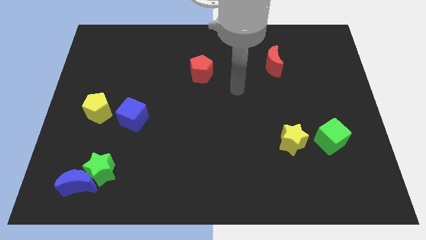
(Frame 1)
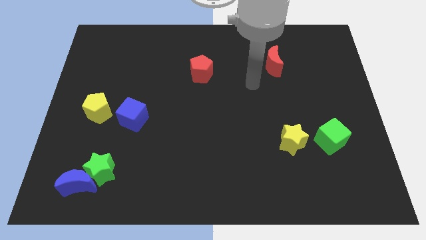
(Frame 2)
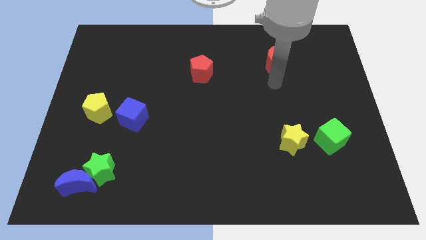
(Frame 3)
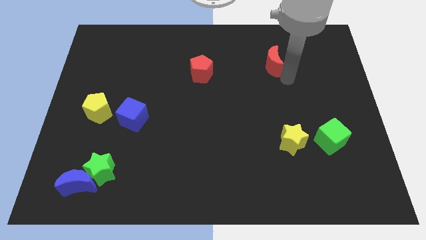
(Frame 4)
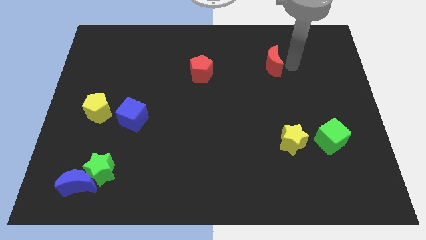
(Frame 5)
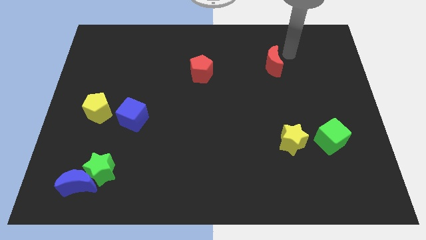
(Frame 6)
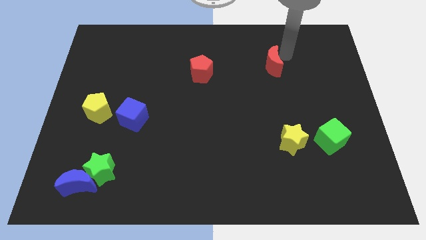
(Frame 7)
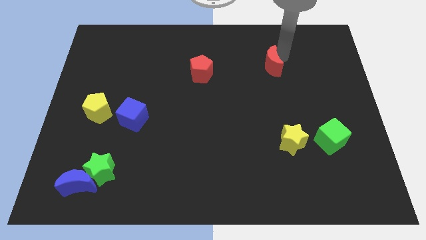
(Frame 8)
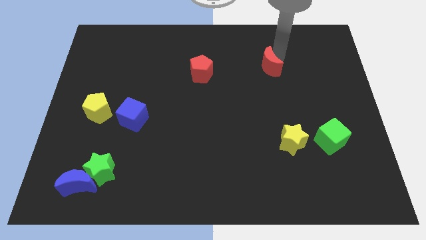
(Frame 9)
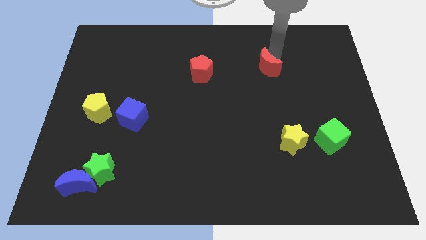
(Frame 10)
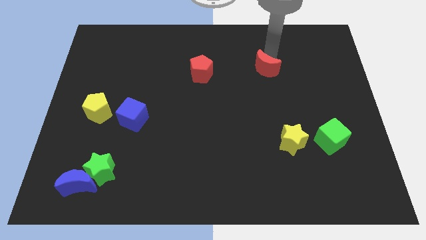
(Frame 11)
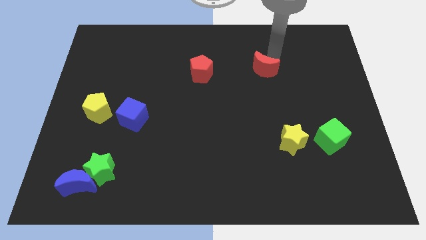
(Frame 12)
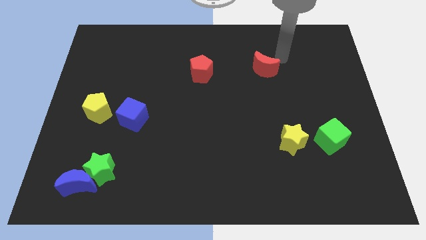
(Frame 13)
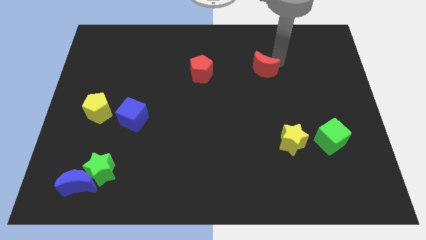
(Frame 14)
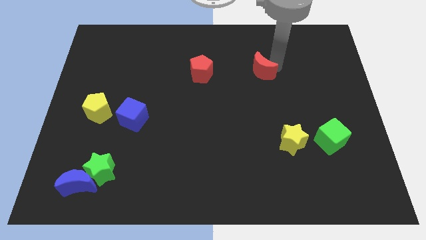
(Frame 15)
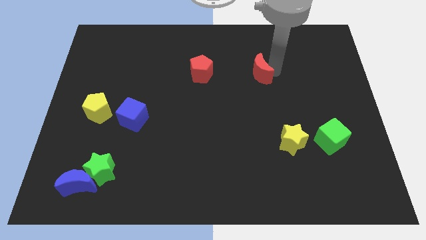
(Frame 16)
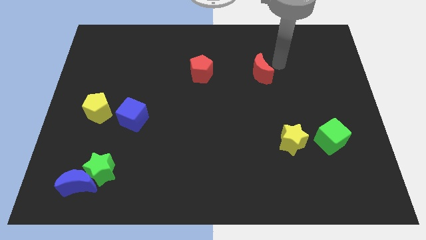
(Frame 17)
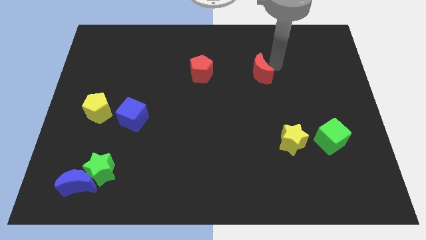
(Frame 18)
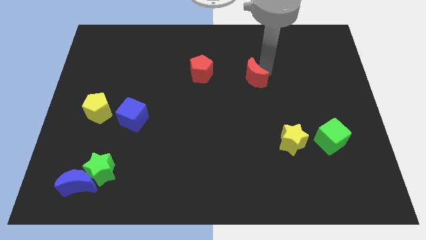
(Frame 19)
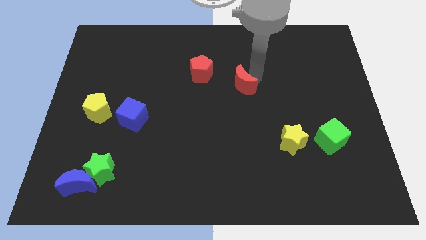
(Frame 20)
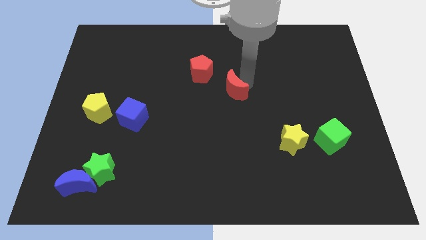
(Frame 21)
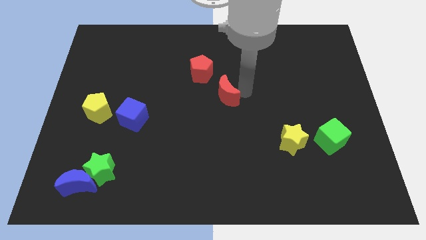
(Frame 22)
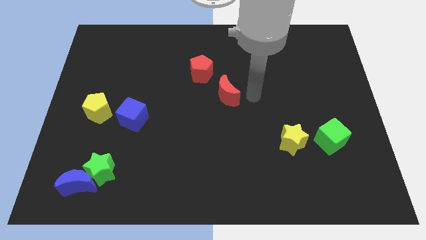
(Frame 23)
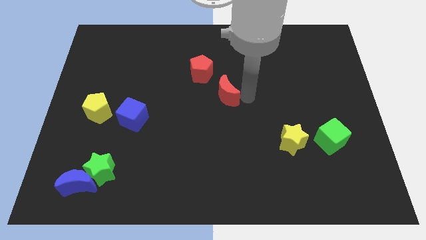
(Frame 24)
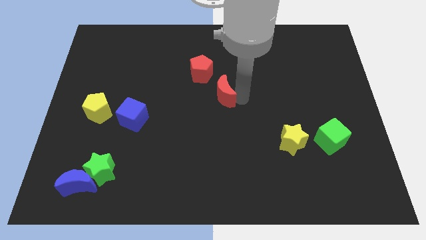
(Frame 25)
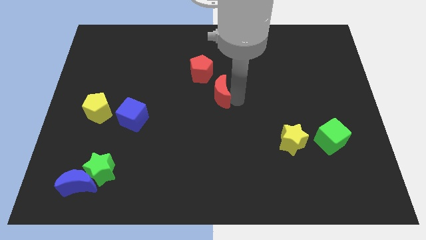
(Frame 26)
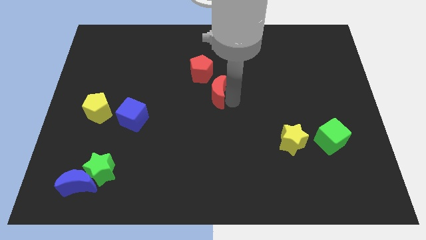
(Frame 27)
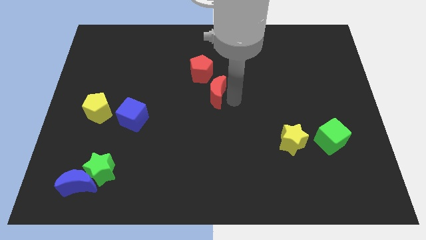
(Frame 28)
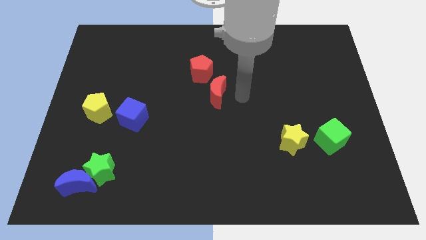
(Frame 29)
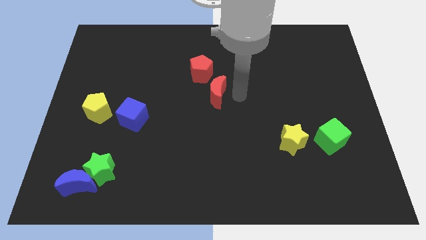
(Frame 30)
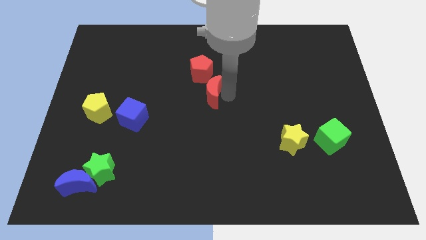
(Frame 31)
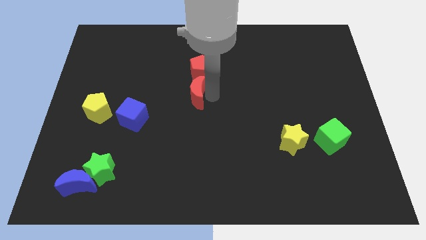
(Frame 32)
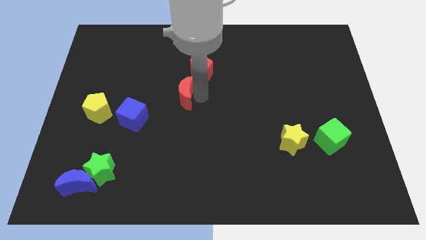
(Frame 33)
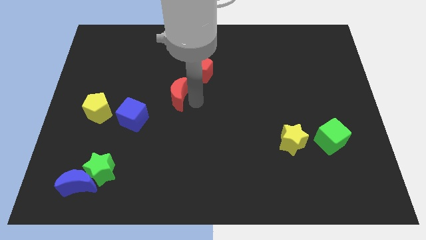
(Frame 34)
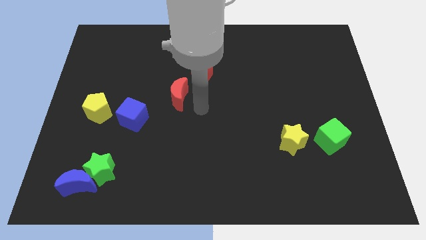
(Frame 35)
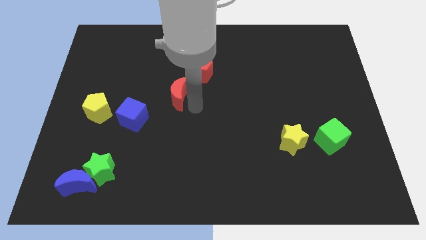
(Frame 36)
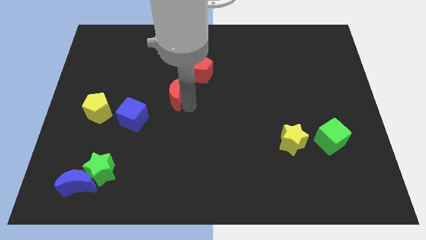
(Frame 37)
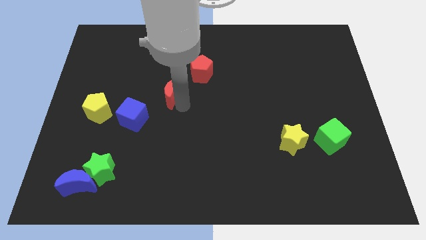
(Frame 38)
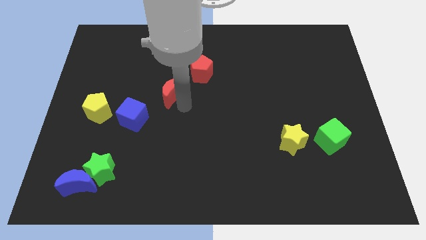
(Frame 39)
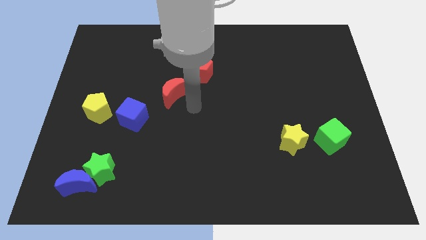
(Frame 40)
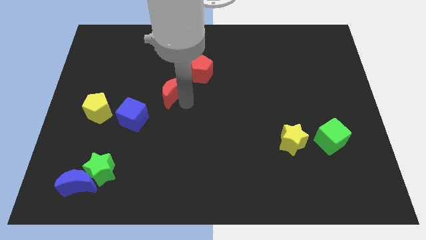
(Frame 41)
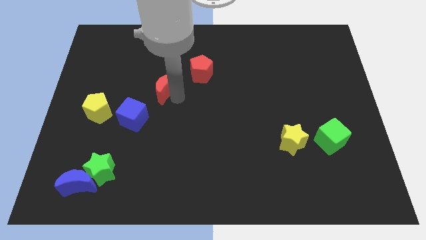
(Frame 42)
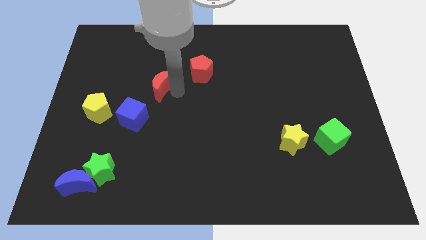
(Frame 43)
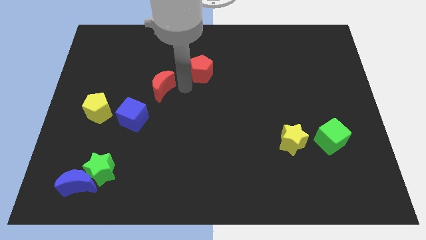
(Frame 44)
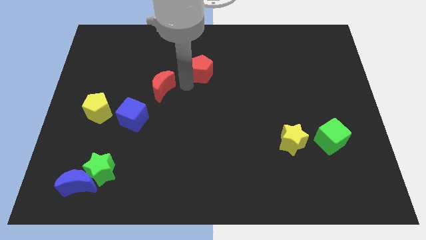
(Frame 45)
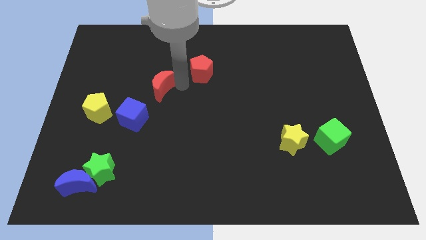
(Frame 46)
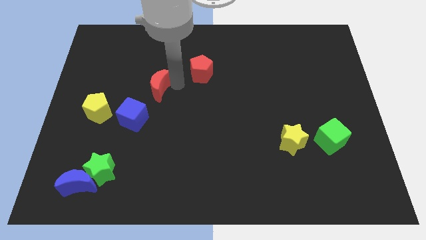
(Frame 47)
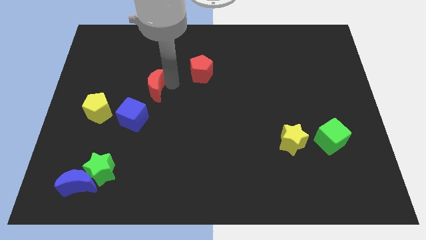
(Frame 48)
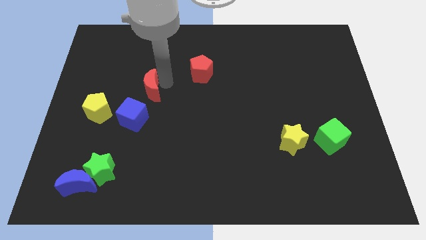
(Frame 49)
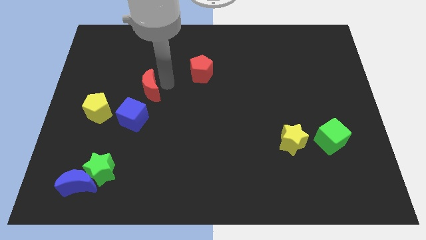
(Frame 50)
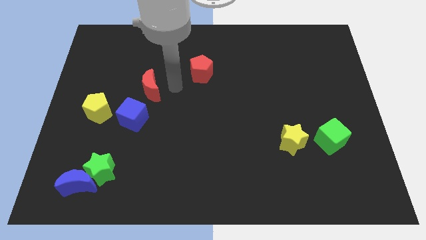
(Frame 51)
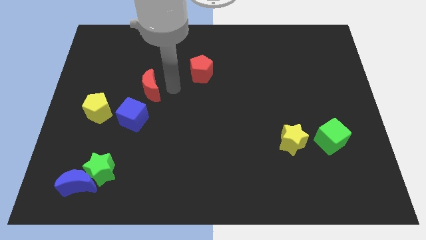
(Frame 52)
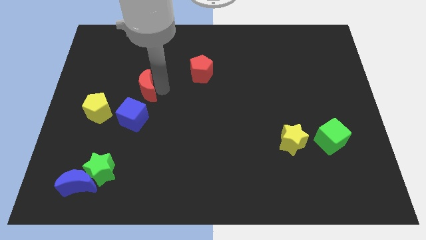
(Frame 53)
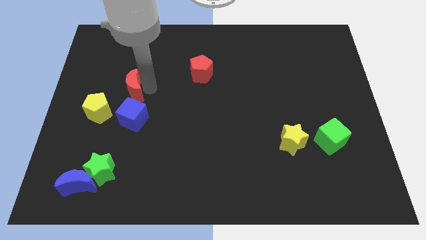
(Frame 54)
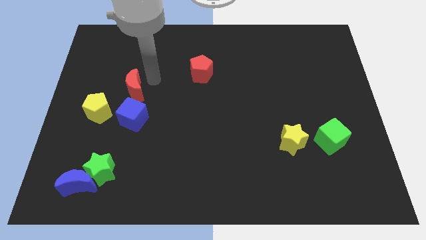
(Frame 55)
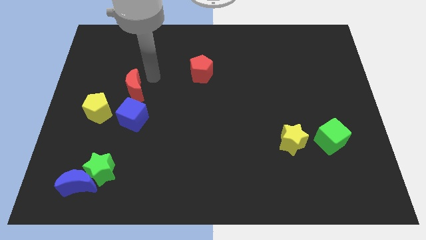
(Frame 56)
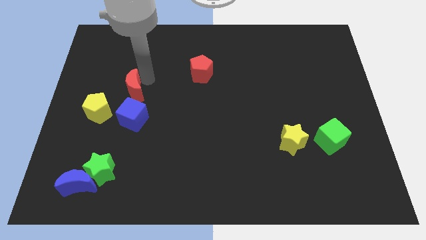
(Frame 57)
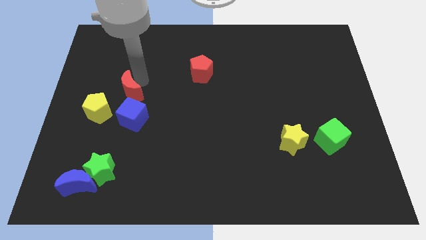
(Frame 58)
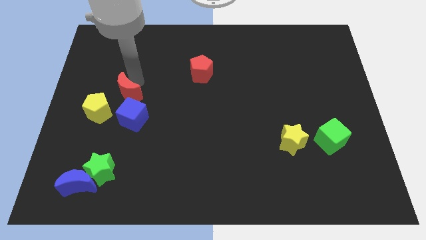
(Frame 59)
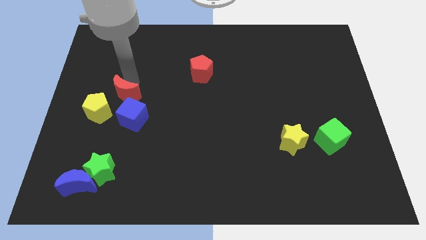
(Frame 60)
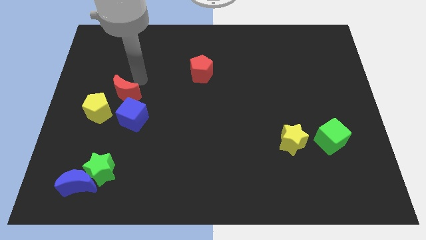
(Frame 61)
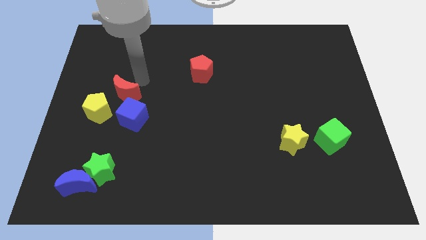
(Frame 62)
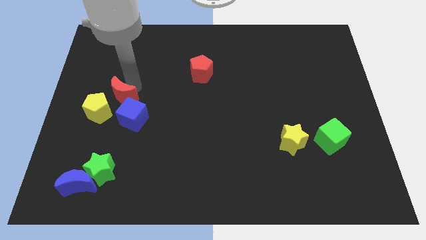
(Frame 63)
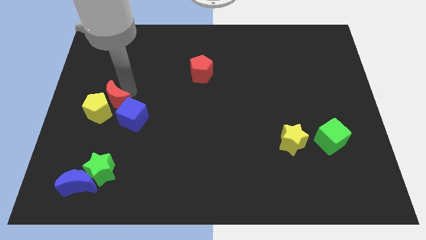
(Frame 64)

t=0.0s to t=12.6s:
move the red moon close to the yellow pentagon

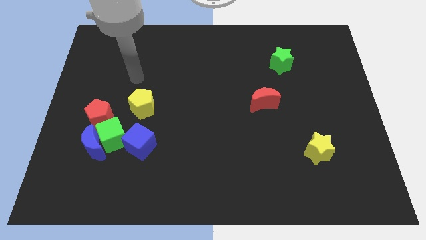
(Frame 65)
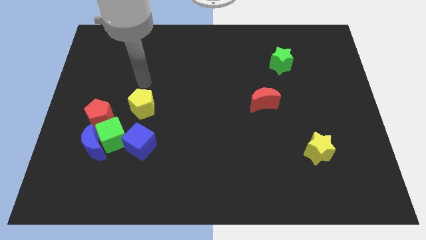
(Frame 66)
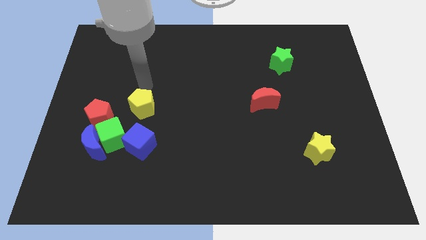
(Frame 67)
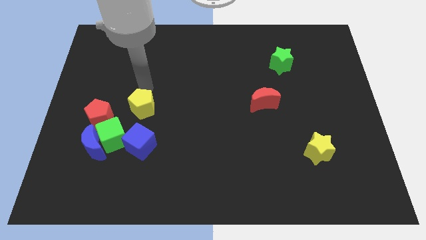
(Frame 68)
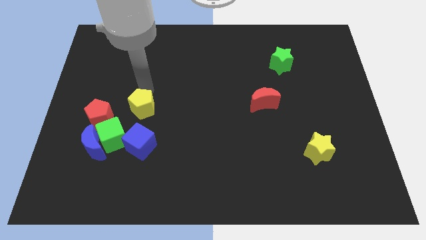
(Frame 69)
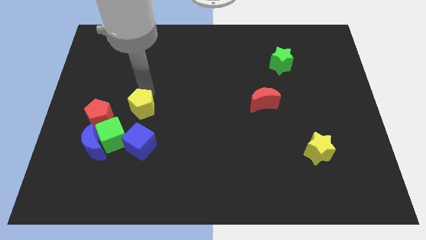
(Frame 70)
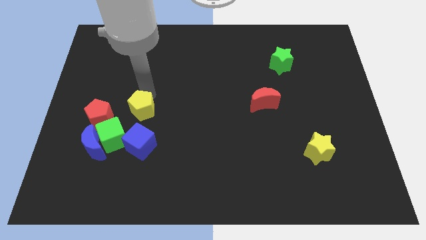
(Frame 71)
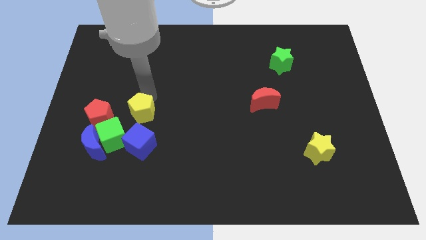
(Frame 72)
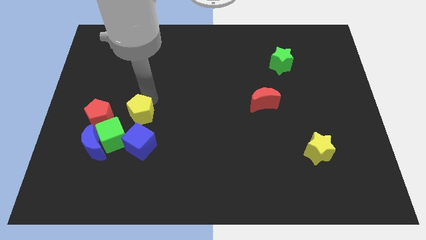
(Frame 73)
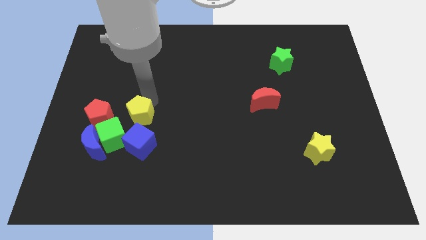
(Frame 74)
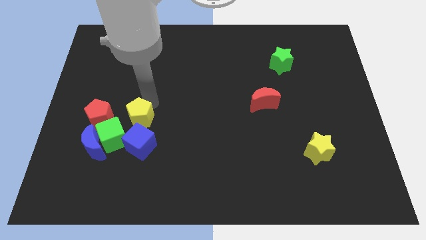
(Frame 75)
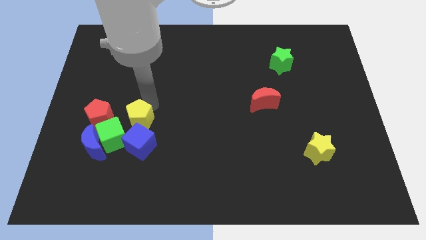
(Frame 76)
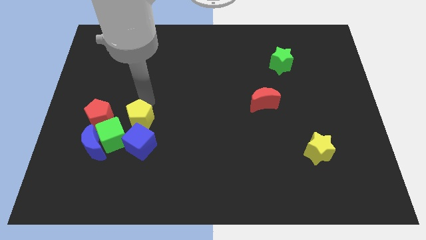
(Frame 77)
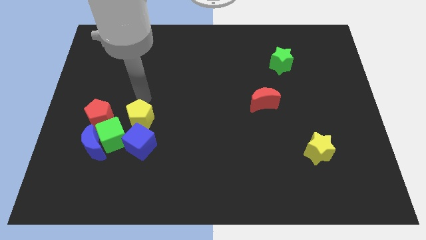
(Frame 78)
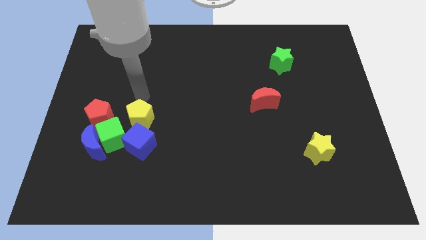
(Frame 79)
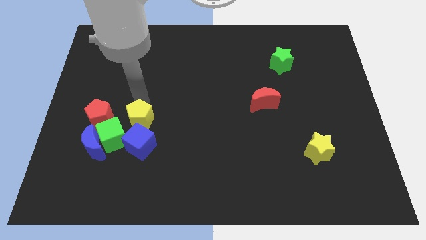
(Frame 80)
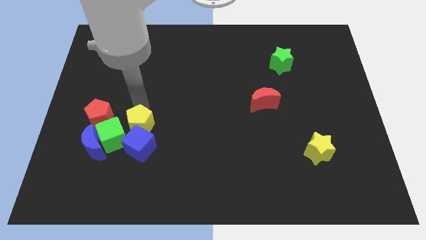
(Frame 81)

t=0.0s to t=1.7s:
push the yellow pentagon close to the blue cube
